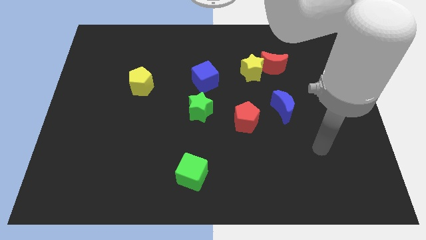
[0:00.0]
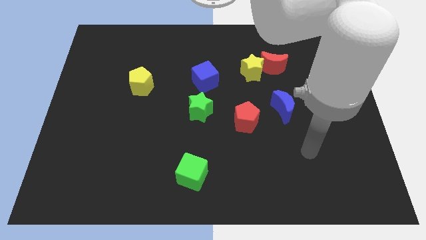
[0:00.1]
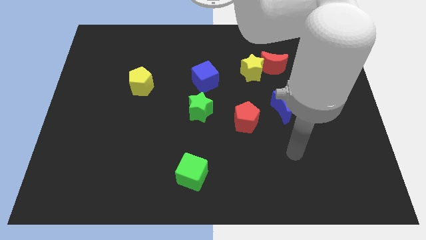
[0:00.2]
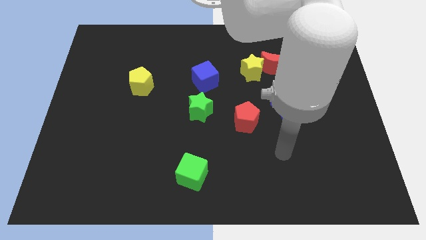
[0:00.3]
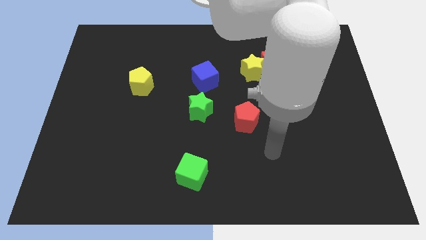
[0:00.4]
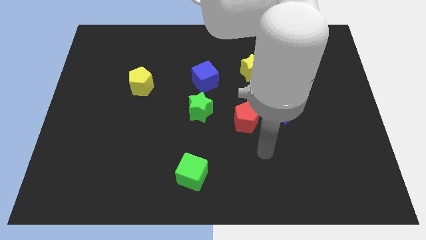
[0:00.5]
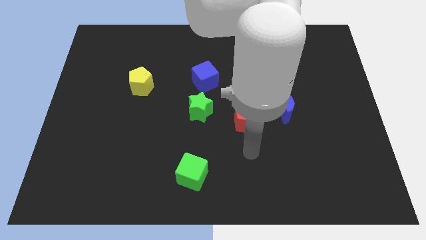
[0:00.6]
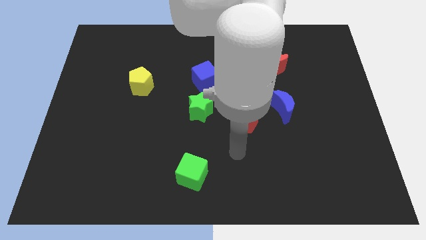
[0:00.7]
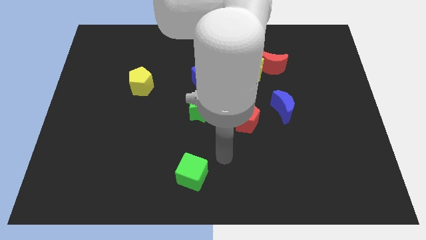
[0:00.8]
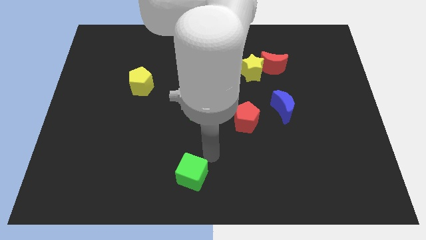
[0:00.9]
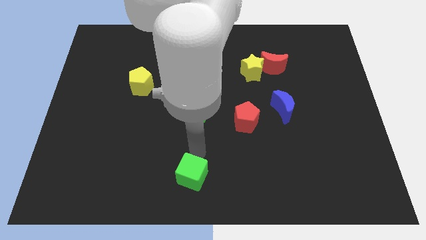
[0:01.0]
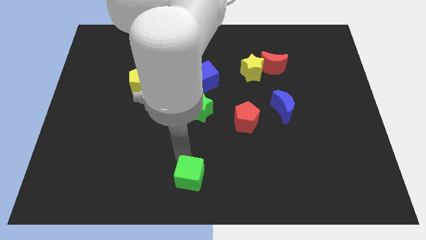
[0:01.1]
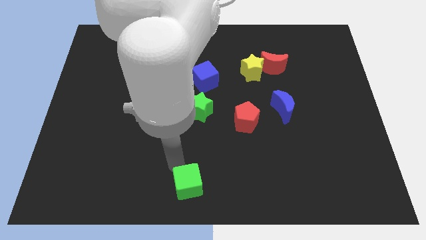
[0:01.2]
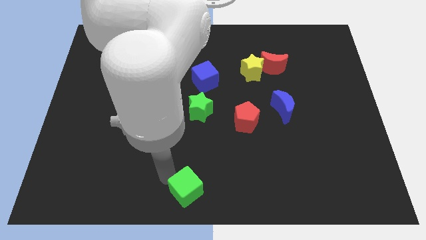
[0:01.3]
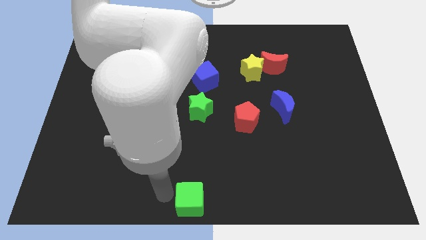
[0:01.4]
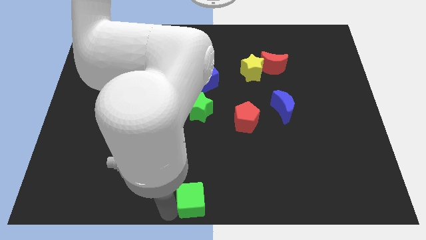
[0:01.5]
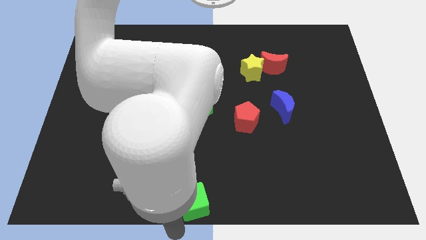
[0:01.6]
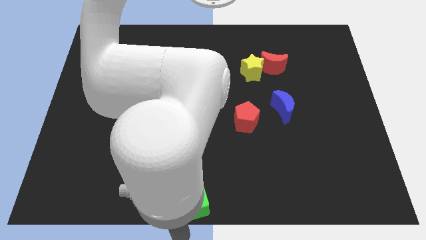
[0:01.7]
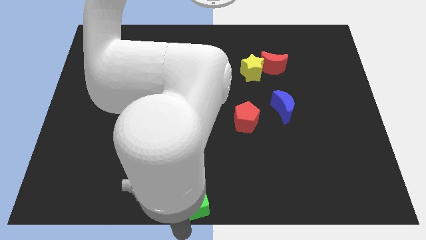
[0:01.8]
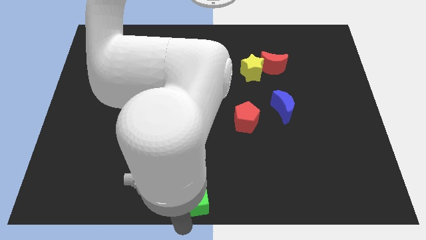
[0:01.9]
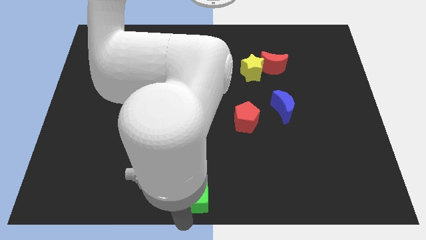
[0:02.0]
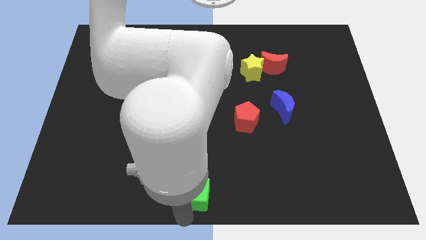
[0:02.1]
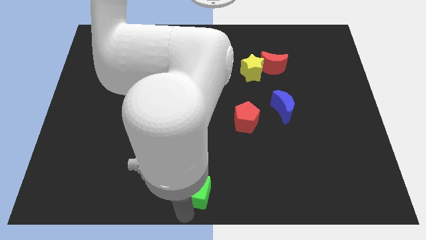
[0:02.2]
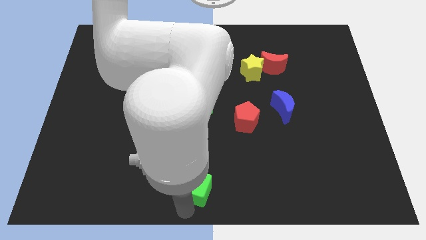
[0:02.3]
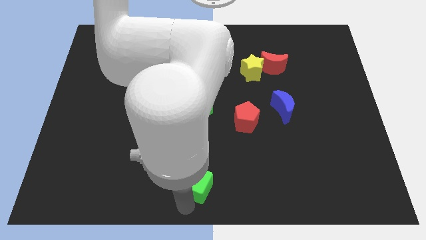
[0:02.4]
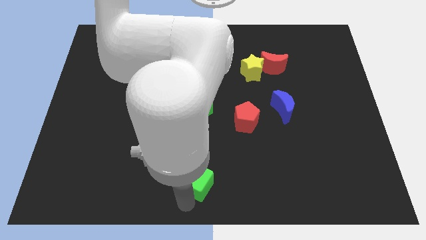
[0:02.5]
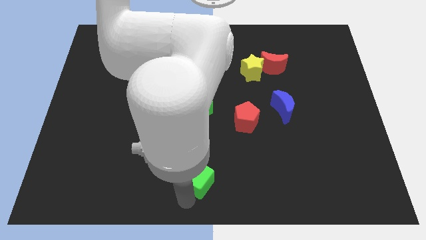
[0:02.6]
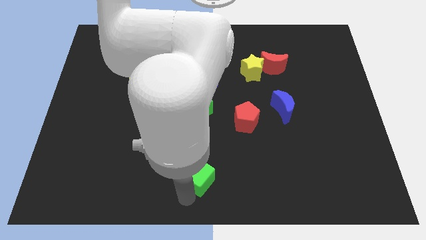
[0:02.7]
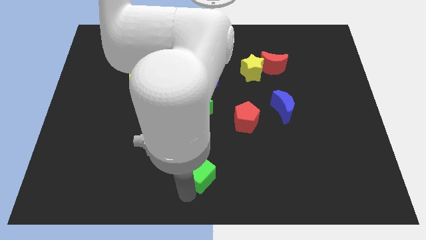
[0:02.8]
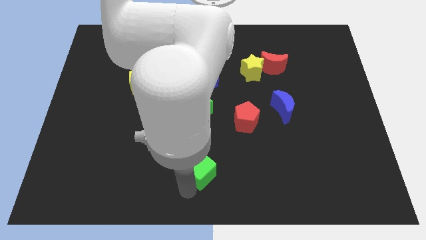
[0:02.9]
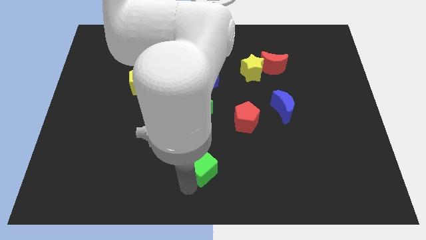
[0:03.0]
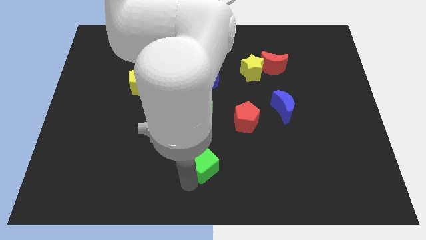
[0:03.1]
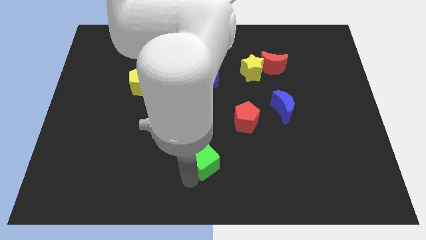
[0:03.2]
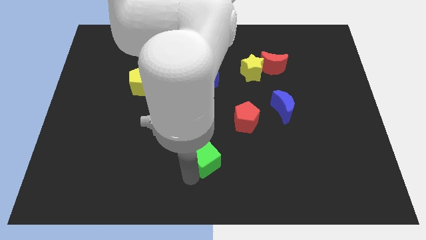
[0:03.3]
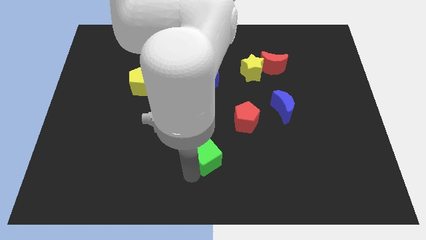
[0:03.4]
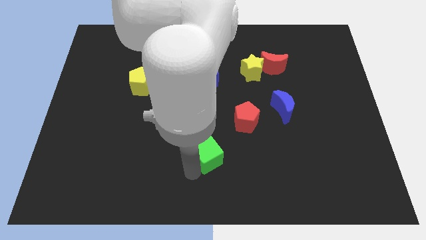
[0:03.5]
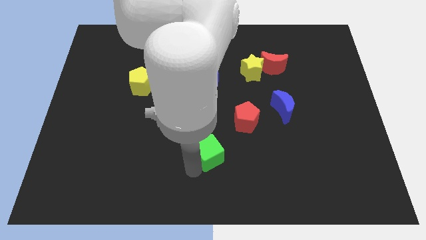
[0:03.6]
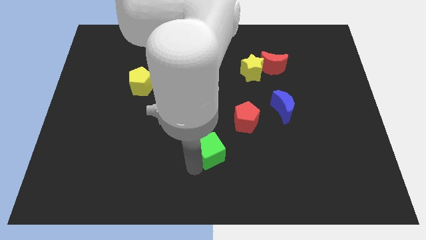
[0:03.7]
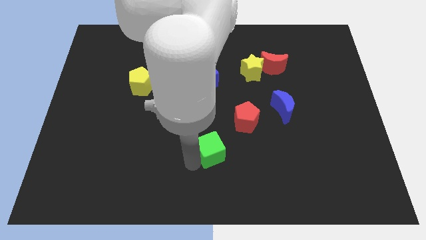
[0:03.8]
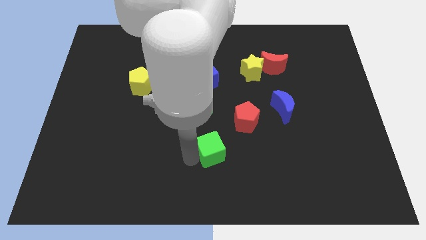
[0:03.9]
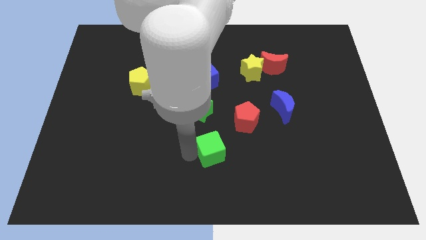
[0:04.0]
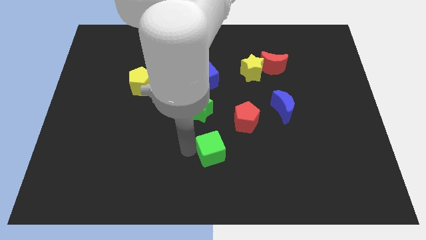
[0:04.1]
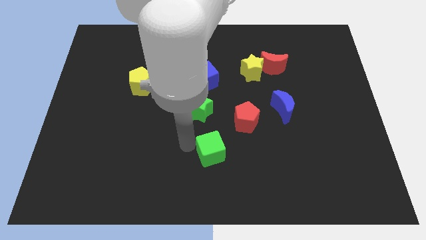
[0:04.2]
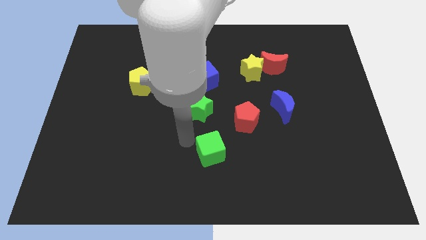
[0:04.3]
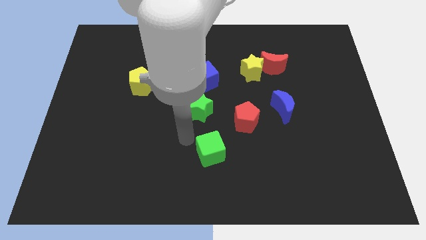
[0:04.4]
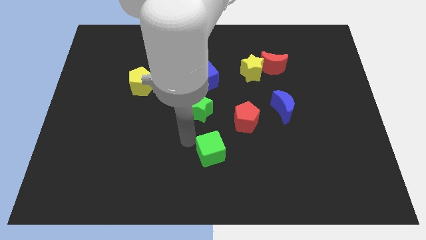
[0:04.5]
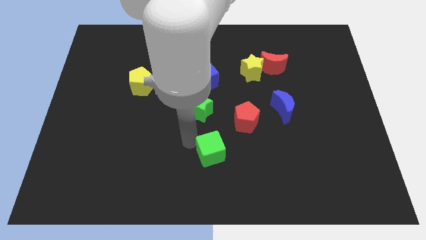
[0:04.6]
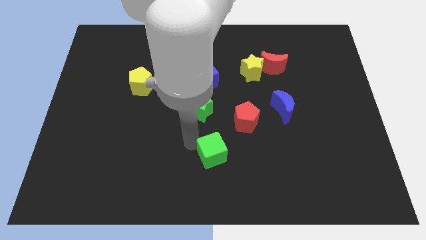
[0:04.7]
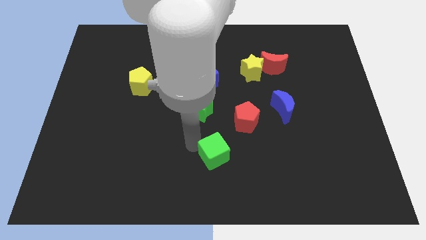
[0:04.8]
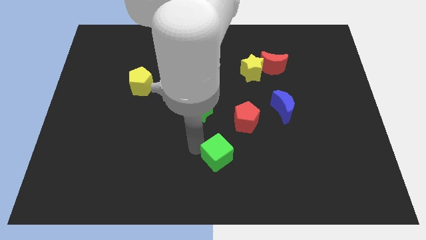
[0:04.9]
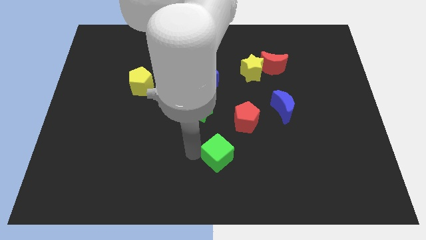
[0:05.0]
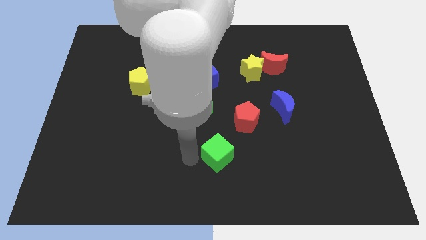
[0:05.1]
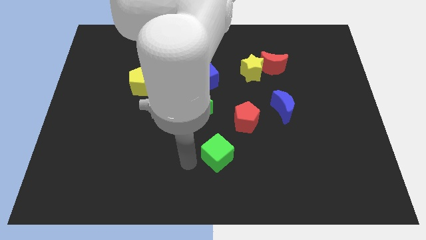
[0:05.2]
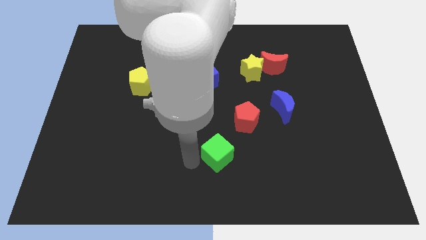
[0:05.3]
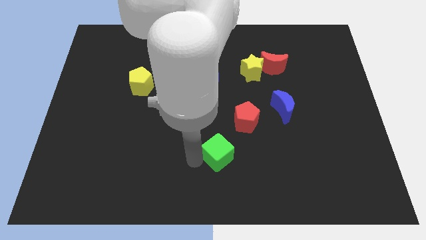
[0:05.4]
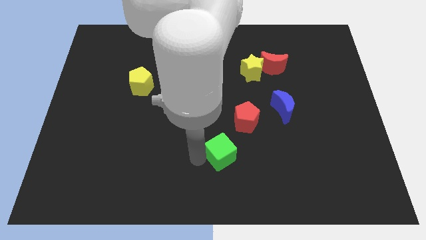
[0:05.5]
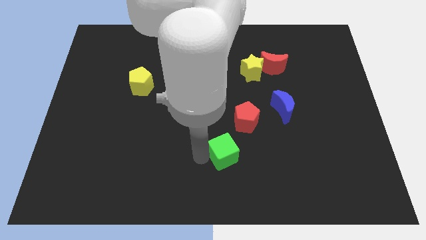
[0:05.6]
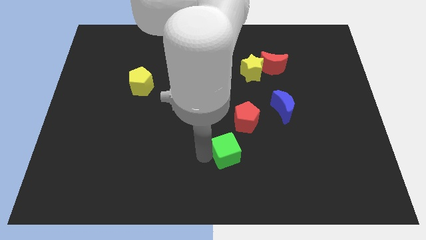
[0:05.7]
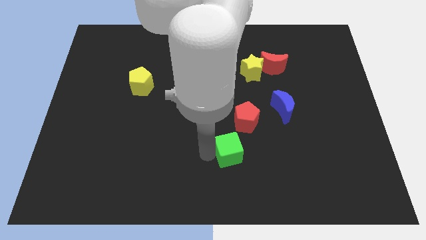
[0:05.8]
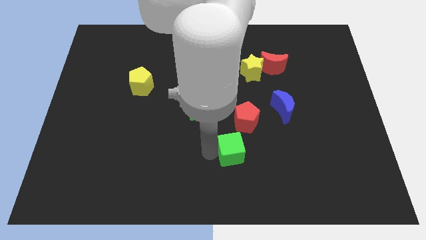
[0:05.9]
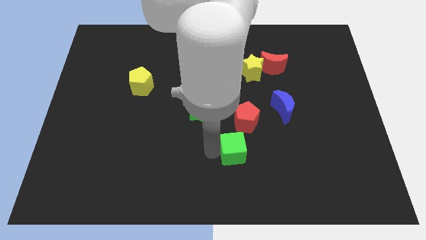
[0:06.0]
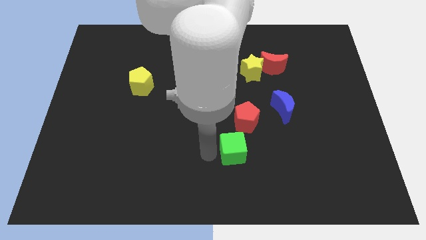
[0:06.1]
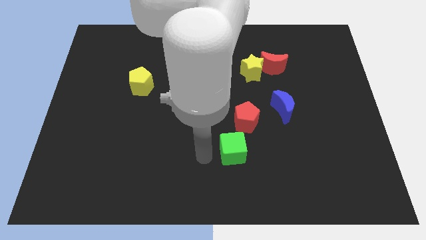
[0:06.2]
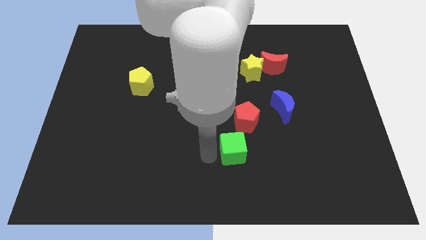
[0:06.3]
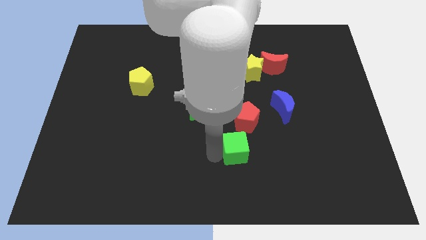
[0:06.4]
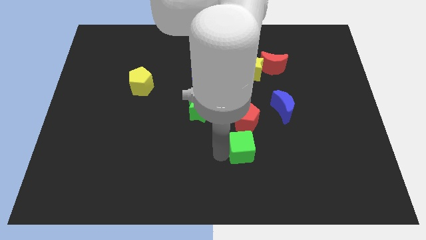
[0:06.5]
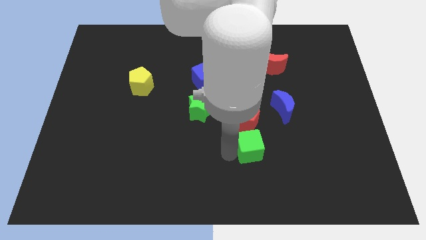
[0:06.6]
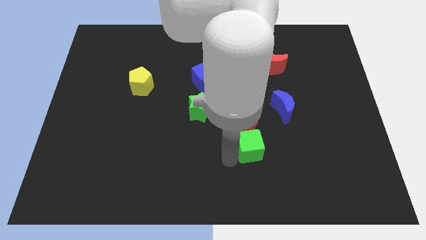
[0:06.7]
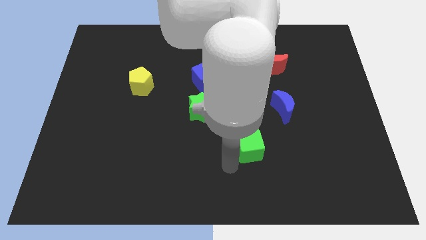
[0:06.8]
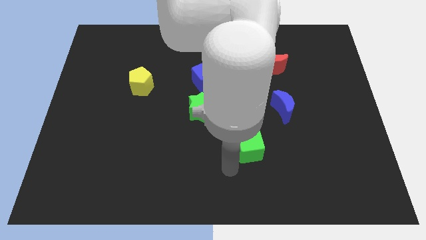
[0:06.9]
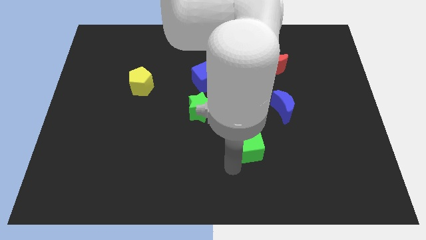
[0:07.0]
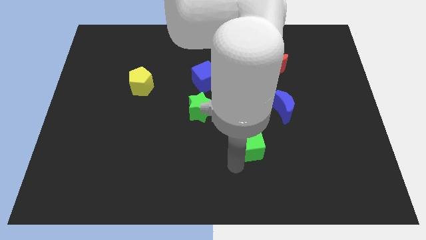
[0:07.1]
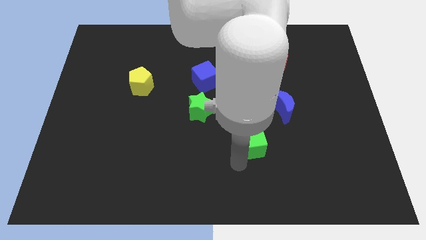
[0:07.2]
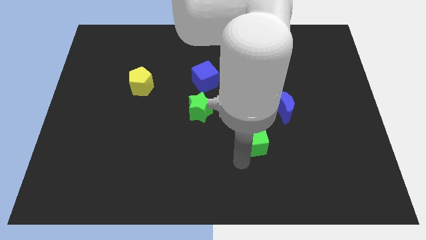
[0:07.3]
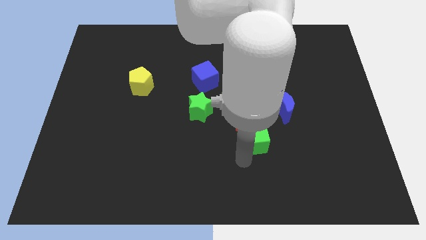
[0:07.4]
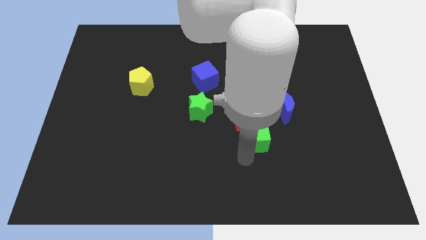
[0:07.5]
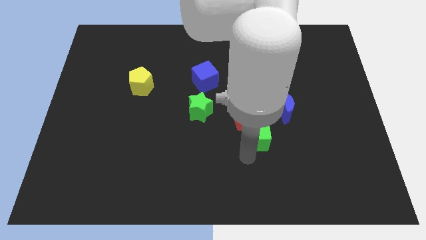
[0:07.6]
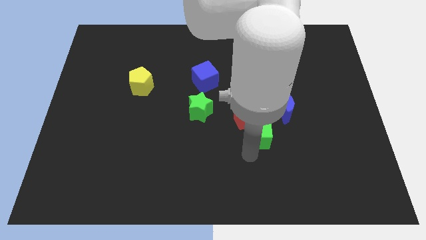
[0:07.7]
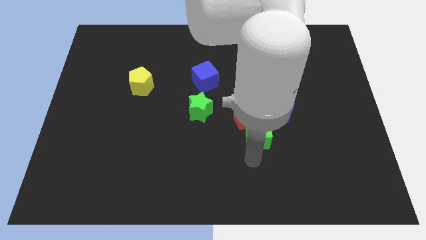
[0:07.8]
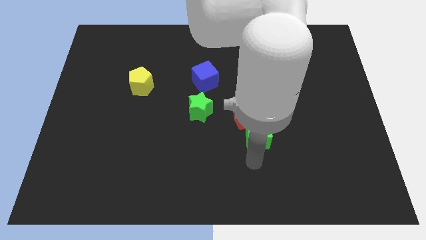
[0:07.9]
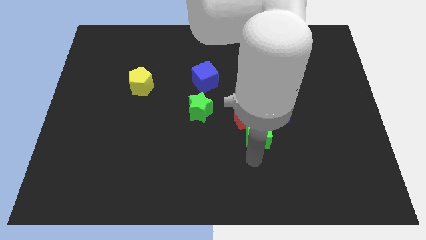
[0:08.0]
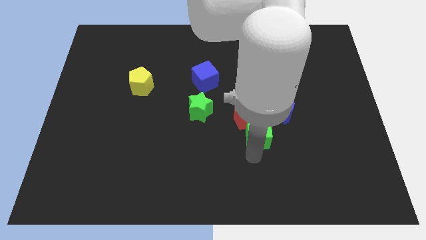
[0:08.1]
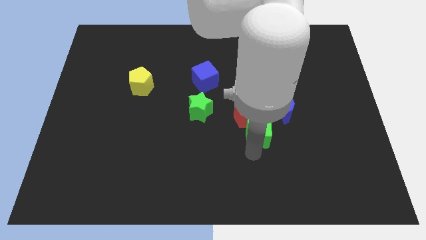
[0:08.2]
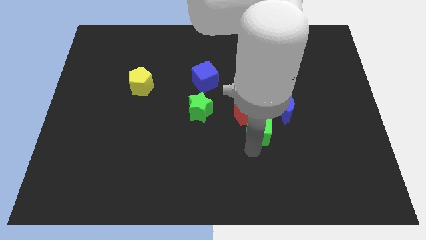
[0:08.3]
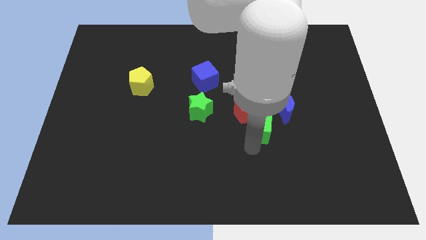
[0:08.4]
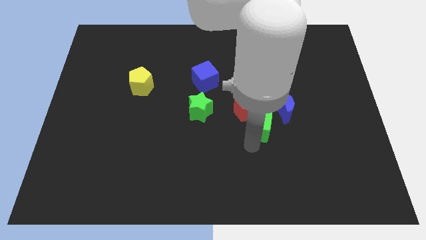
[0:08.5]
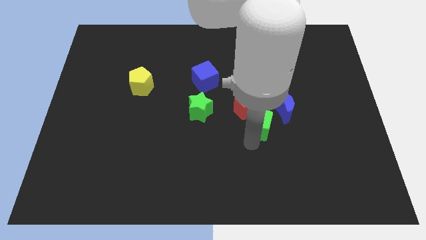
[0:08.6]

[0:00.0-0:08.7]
slide the green cube to the right of the green star
